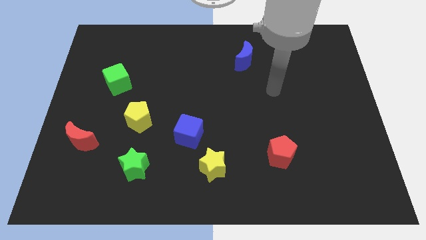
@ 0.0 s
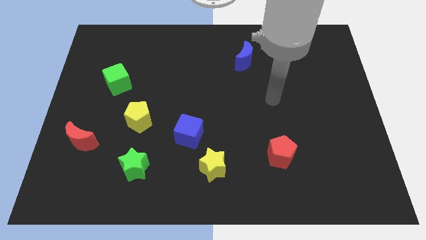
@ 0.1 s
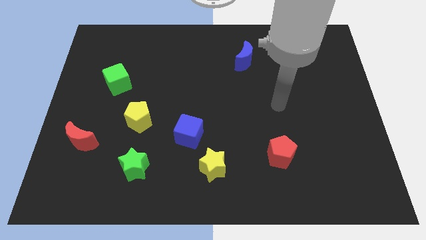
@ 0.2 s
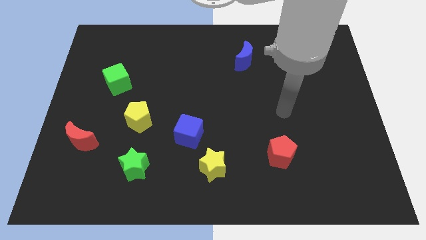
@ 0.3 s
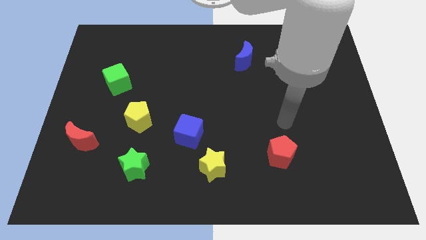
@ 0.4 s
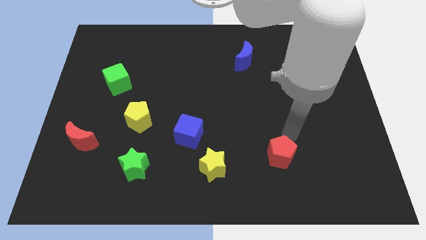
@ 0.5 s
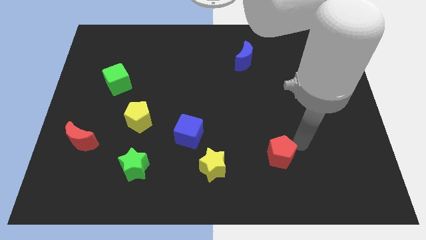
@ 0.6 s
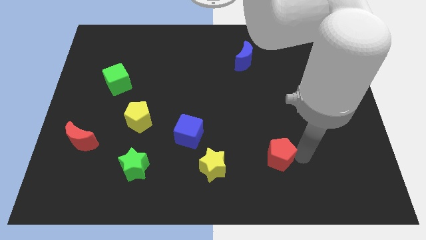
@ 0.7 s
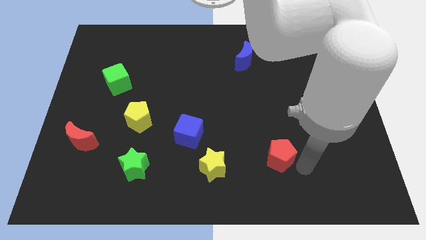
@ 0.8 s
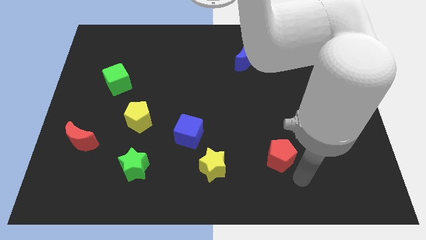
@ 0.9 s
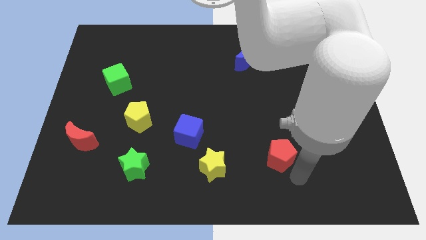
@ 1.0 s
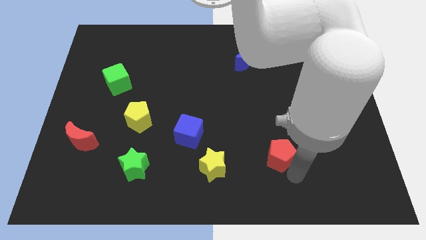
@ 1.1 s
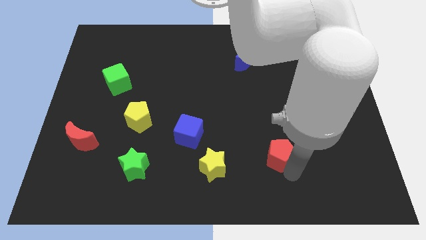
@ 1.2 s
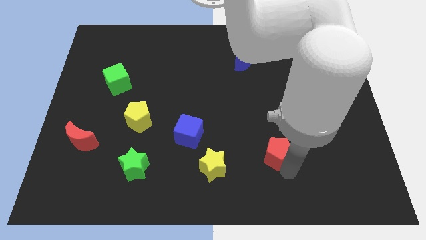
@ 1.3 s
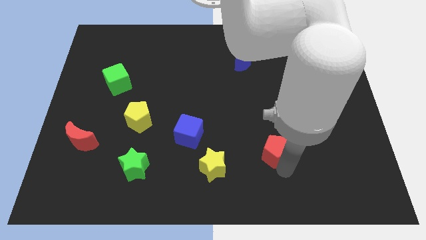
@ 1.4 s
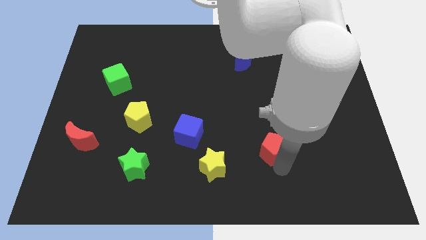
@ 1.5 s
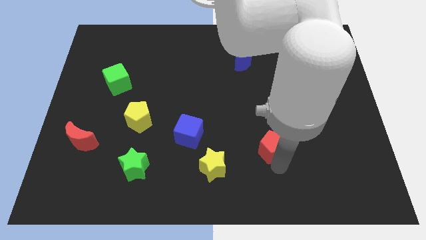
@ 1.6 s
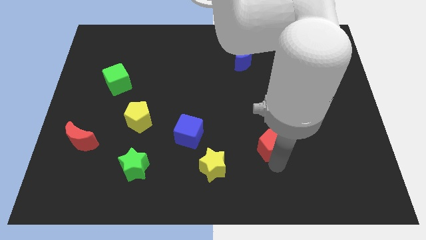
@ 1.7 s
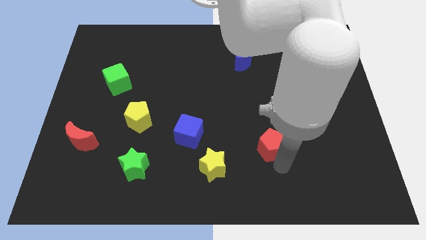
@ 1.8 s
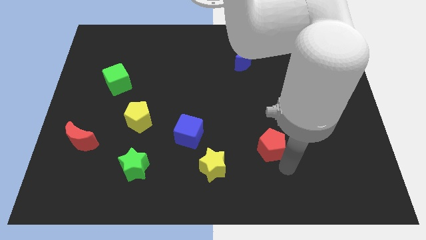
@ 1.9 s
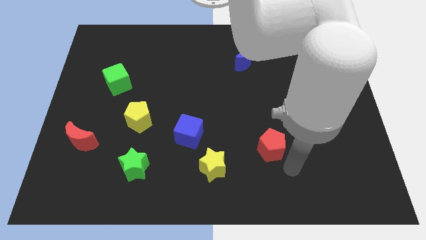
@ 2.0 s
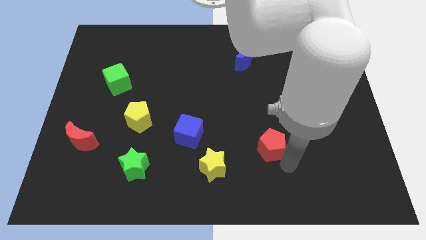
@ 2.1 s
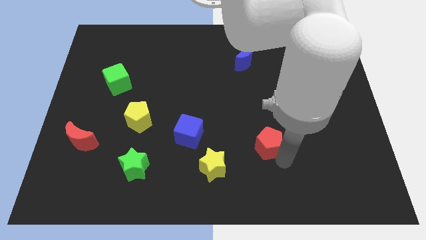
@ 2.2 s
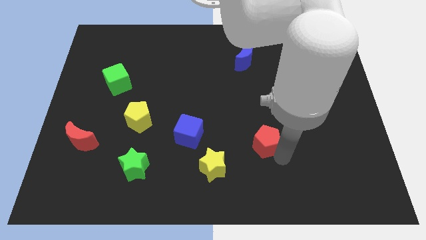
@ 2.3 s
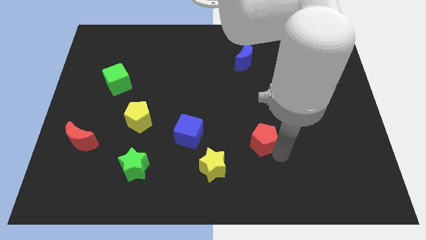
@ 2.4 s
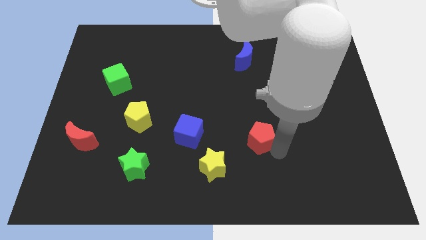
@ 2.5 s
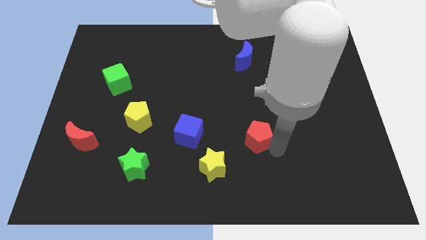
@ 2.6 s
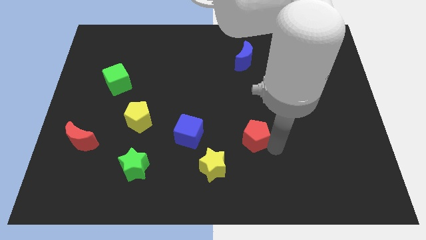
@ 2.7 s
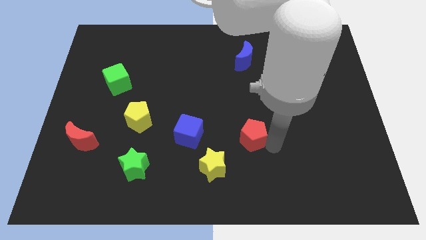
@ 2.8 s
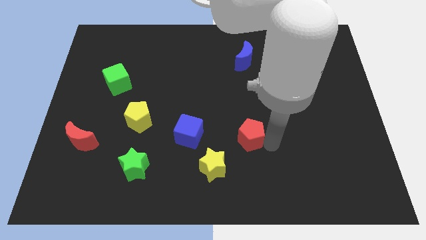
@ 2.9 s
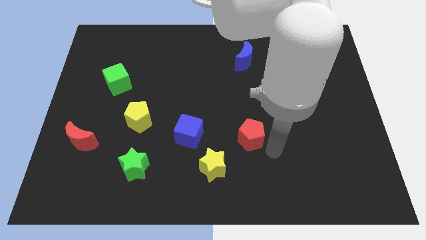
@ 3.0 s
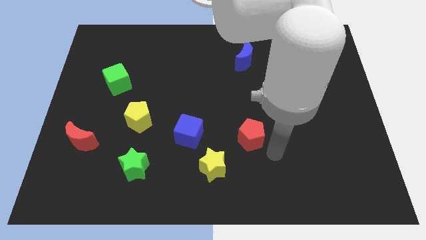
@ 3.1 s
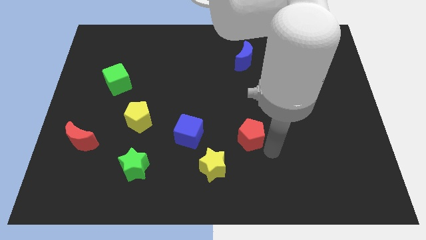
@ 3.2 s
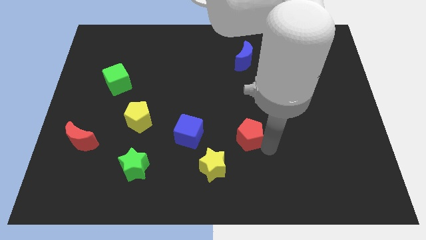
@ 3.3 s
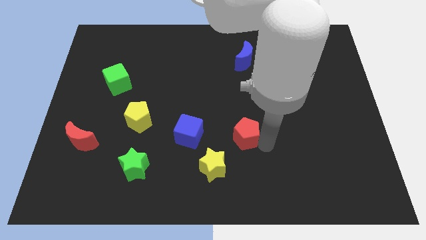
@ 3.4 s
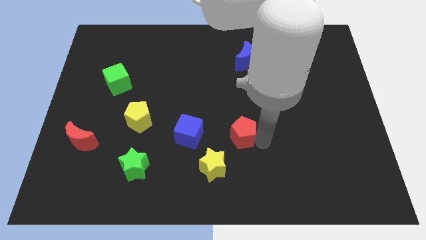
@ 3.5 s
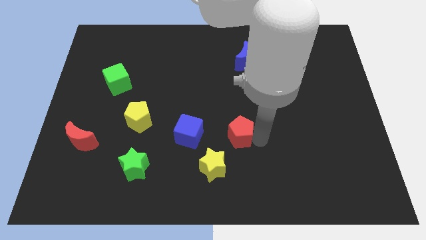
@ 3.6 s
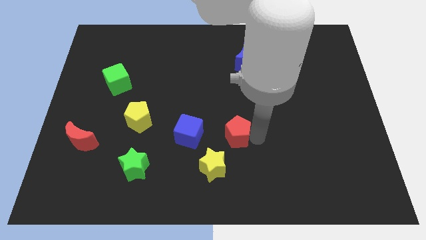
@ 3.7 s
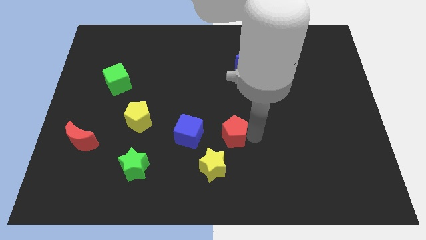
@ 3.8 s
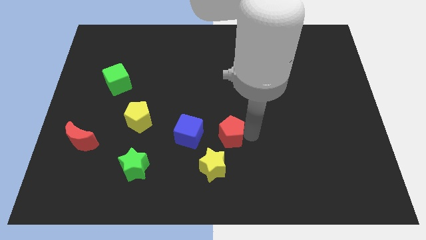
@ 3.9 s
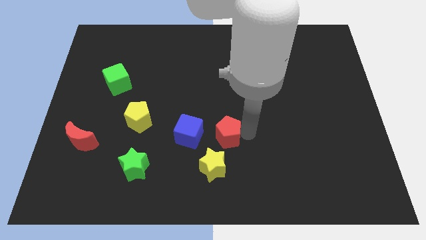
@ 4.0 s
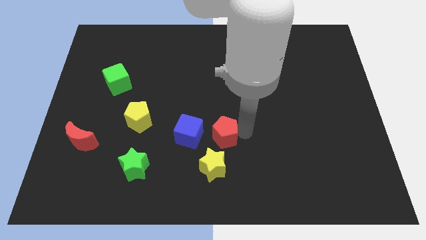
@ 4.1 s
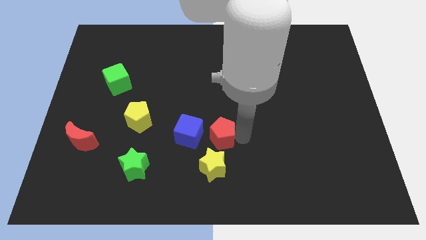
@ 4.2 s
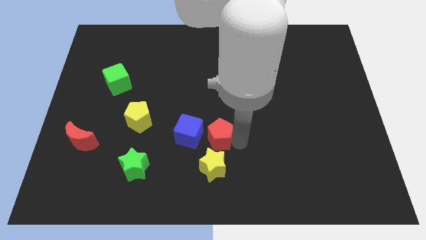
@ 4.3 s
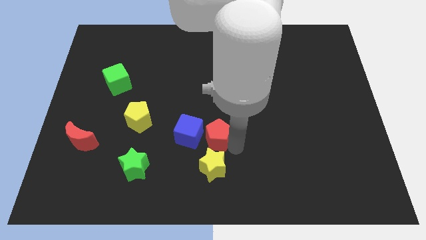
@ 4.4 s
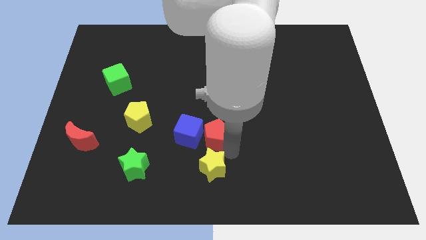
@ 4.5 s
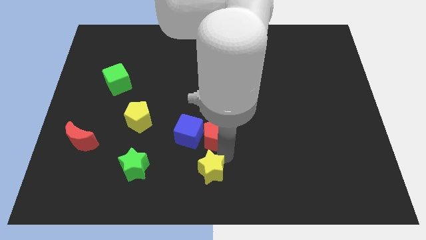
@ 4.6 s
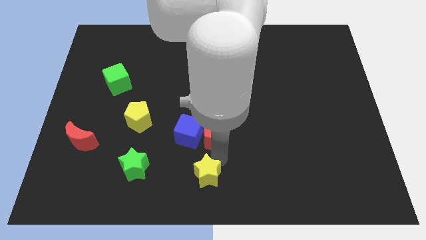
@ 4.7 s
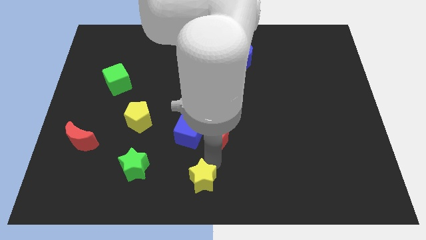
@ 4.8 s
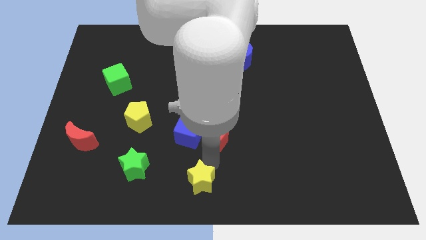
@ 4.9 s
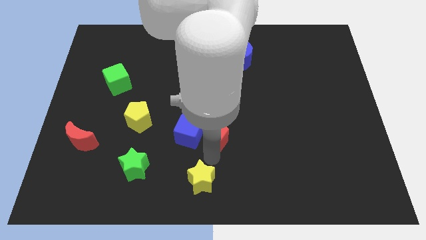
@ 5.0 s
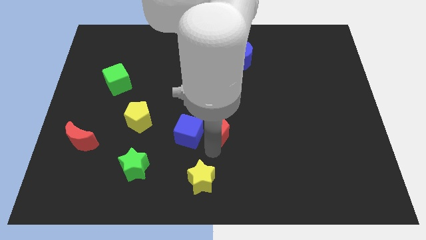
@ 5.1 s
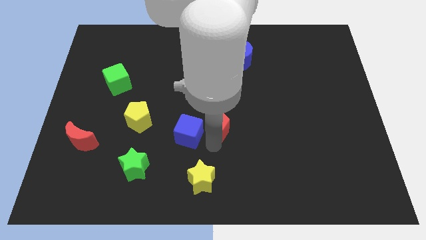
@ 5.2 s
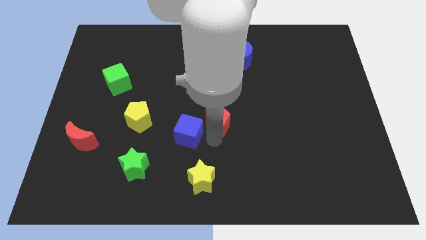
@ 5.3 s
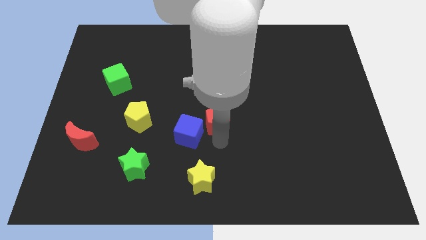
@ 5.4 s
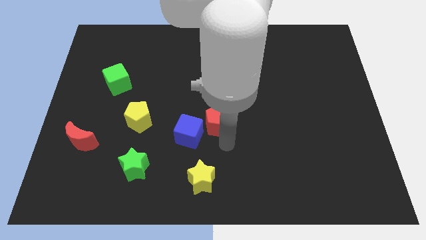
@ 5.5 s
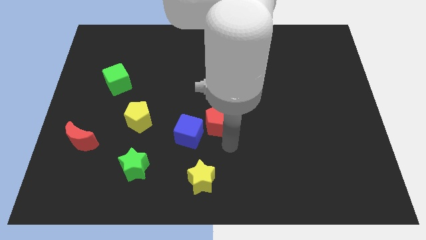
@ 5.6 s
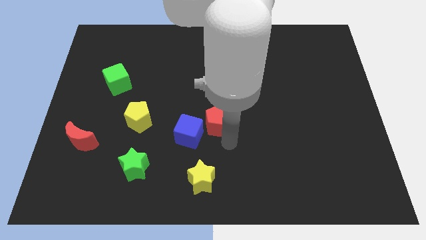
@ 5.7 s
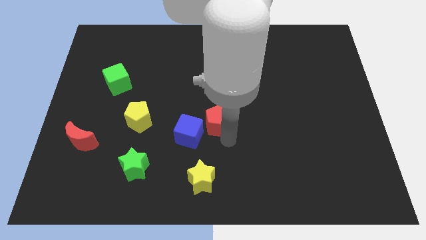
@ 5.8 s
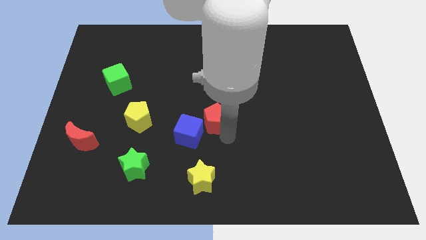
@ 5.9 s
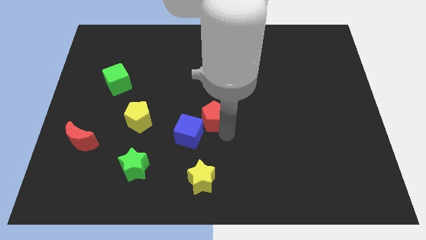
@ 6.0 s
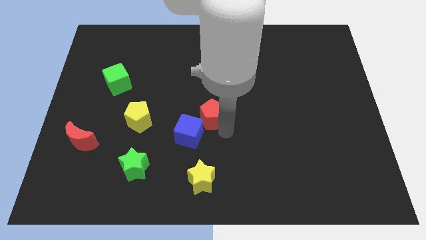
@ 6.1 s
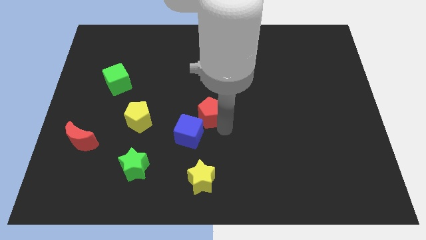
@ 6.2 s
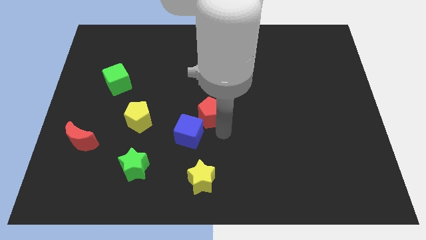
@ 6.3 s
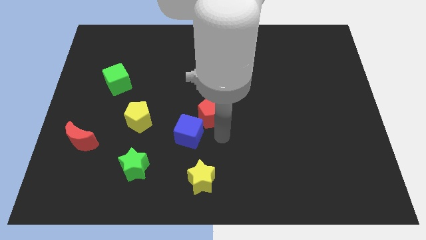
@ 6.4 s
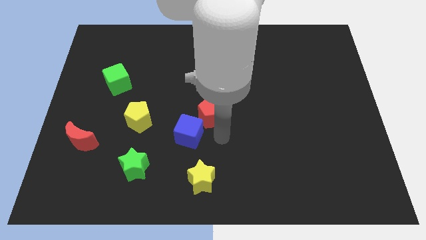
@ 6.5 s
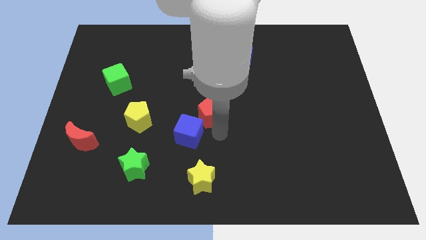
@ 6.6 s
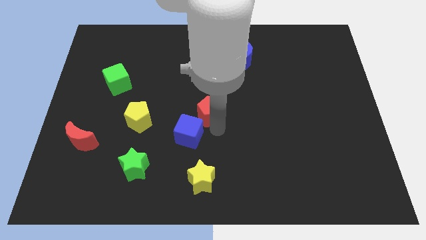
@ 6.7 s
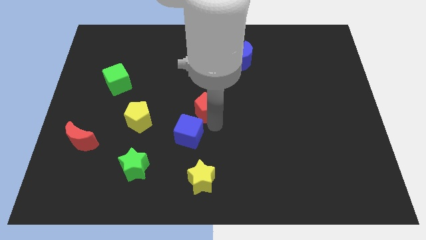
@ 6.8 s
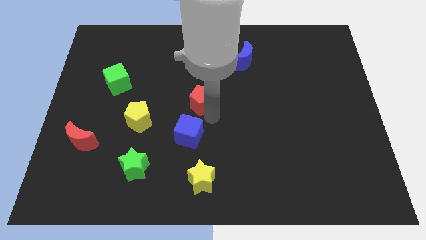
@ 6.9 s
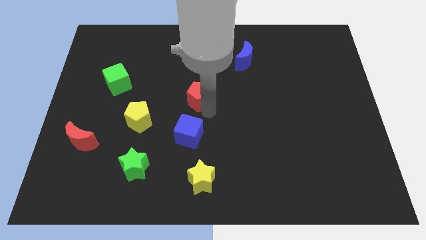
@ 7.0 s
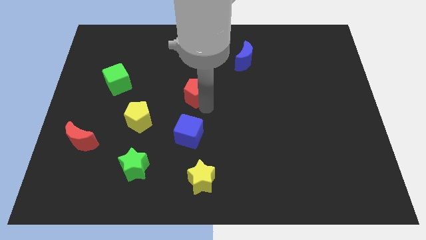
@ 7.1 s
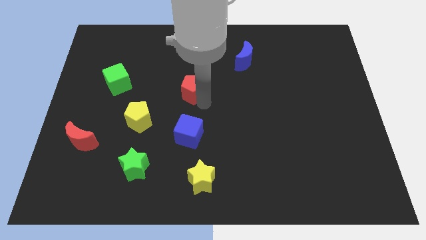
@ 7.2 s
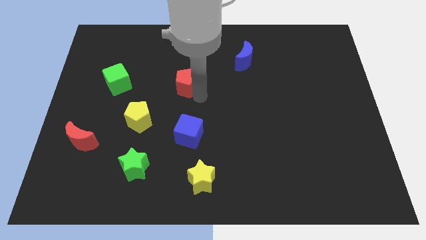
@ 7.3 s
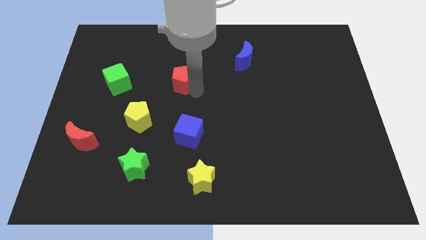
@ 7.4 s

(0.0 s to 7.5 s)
push the red pentagon to the right of the green cube
